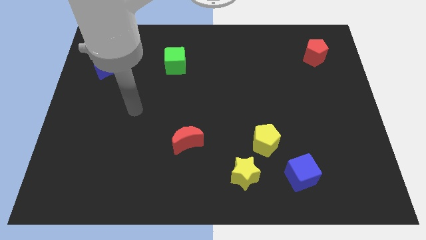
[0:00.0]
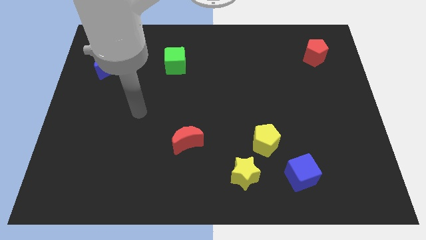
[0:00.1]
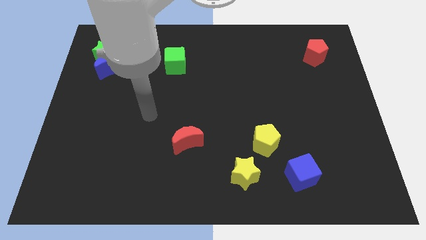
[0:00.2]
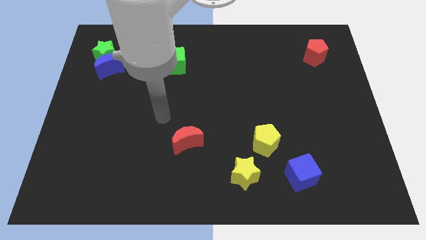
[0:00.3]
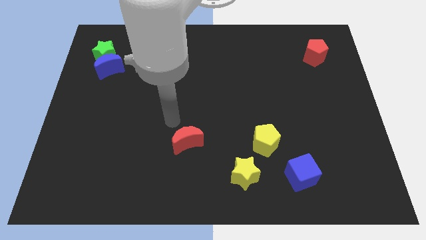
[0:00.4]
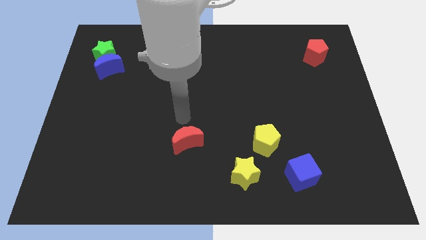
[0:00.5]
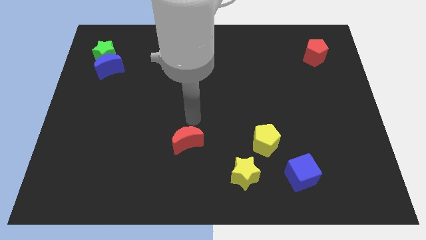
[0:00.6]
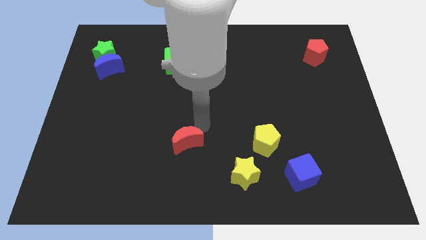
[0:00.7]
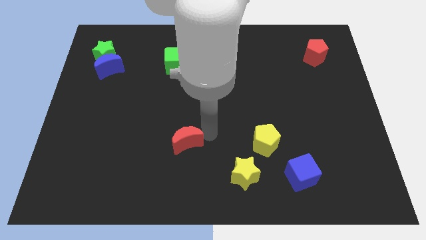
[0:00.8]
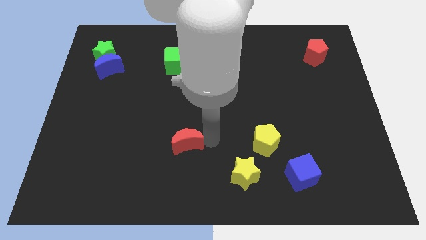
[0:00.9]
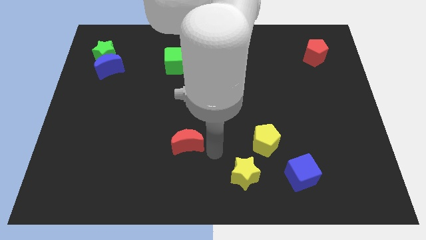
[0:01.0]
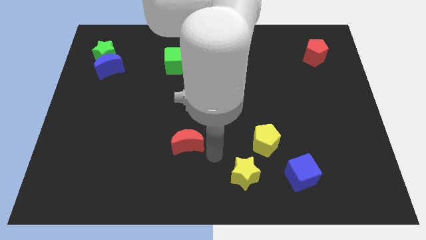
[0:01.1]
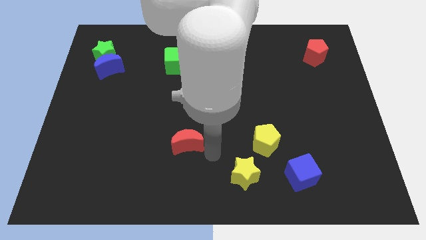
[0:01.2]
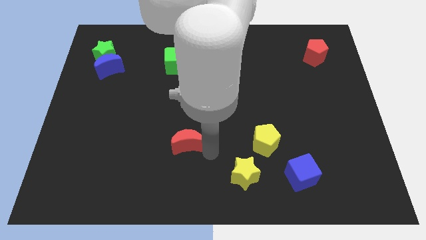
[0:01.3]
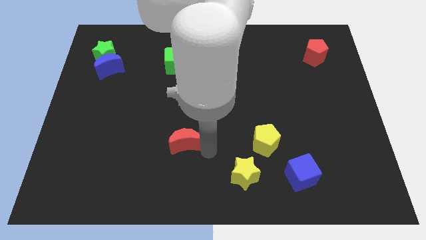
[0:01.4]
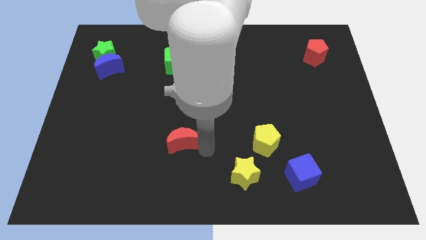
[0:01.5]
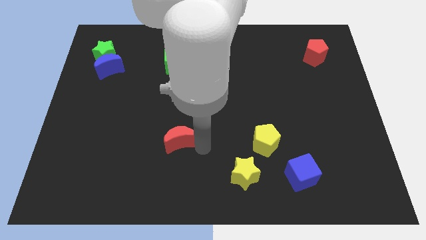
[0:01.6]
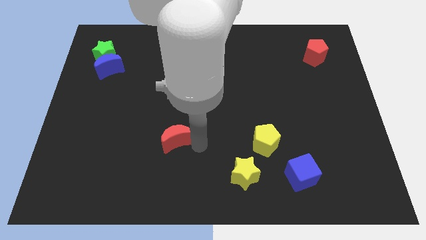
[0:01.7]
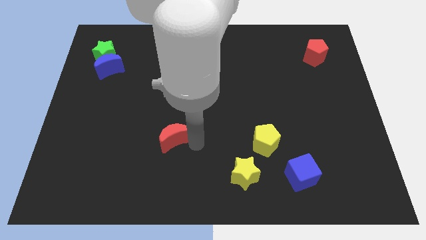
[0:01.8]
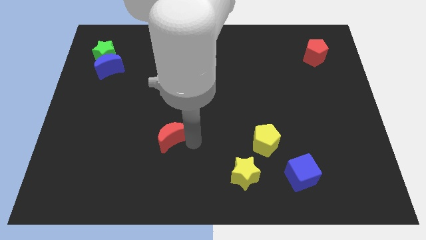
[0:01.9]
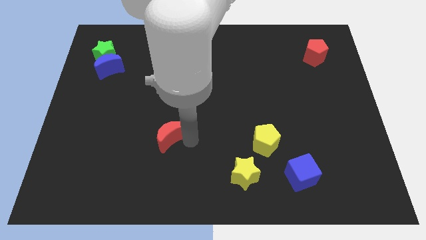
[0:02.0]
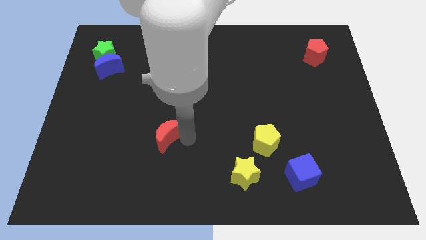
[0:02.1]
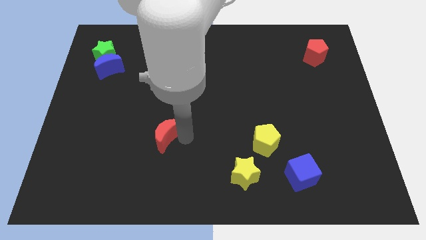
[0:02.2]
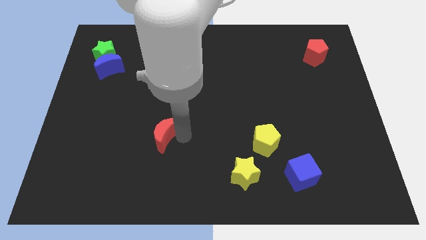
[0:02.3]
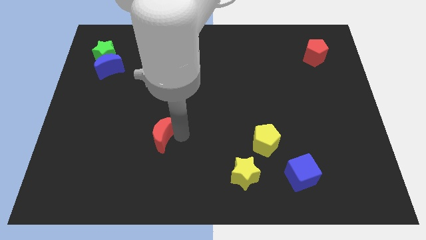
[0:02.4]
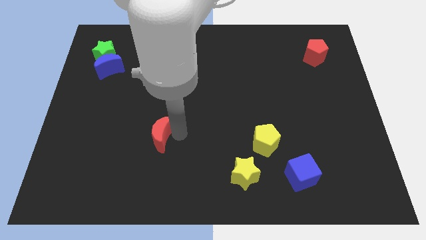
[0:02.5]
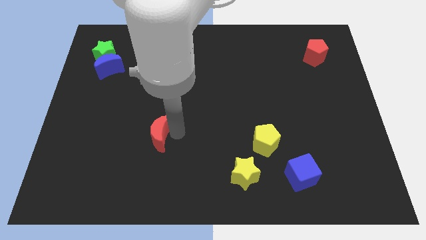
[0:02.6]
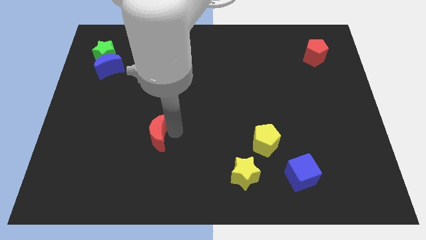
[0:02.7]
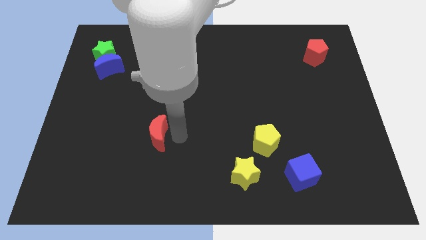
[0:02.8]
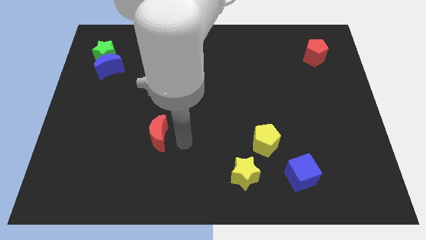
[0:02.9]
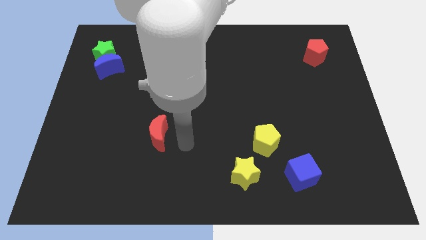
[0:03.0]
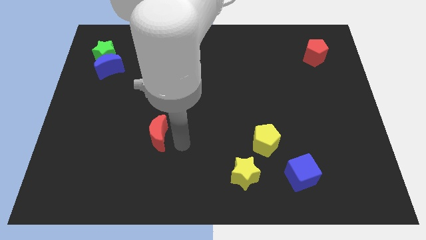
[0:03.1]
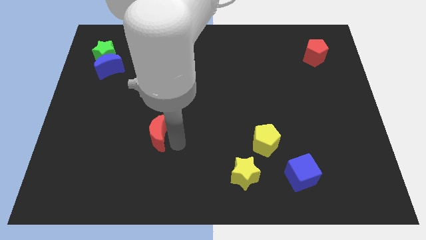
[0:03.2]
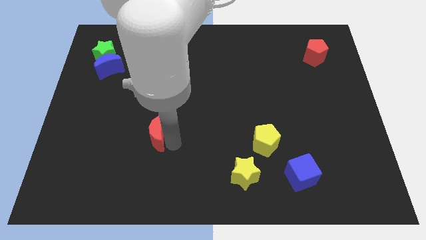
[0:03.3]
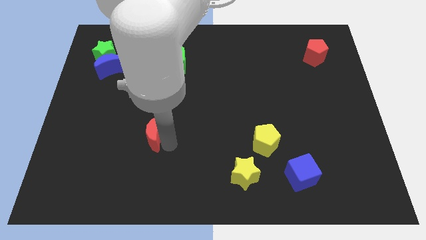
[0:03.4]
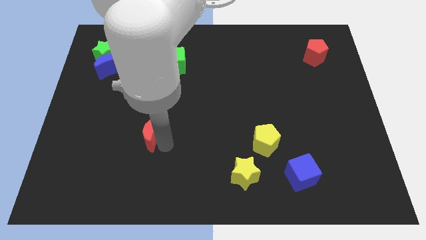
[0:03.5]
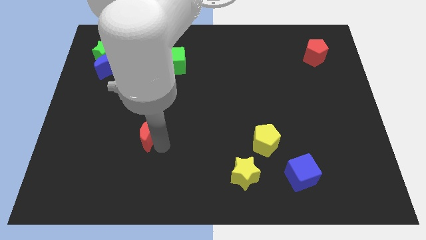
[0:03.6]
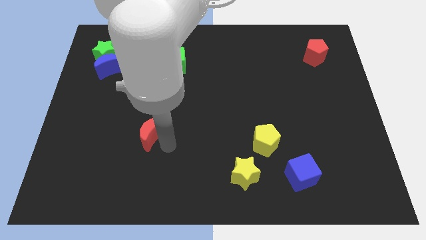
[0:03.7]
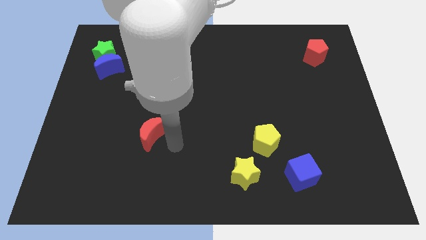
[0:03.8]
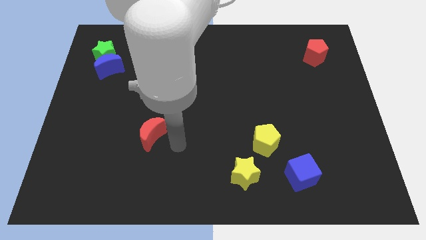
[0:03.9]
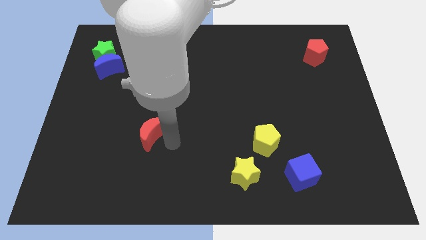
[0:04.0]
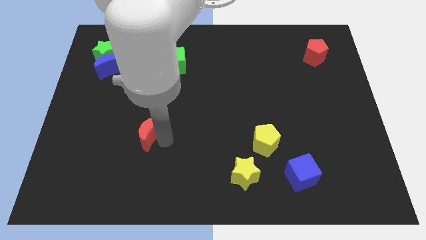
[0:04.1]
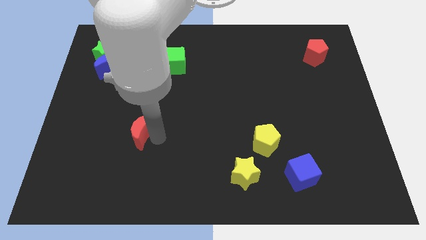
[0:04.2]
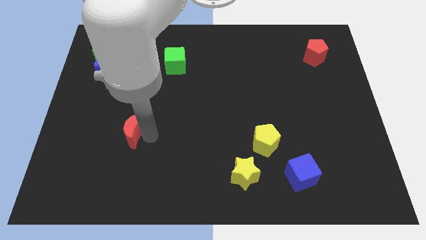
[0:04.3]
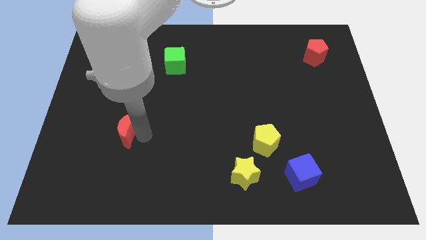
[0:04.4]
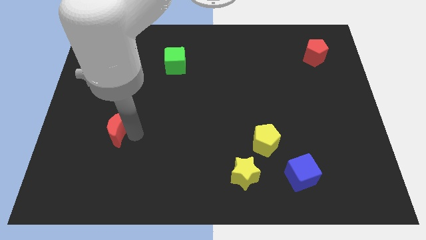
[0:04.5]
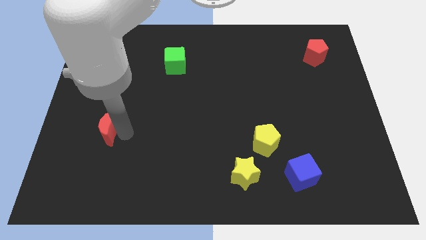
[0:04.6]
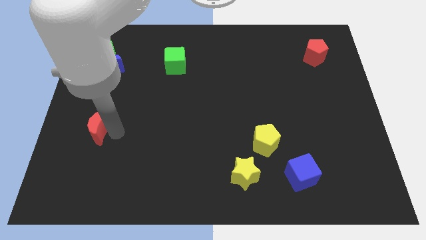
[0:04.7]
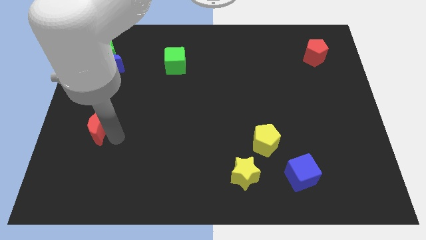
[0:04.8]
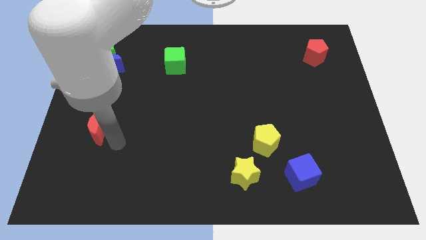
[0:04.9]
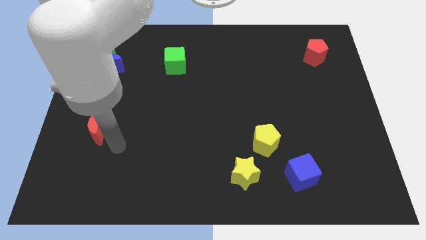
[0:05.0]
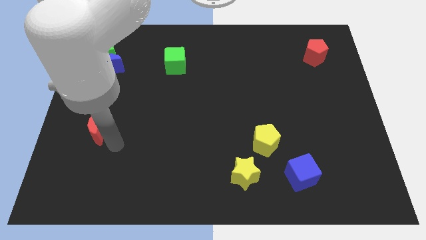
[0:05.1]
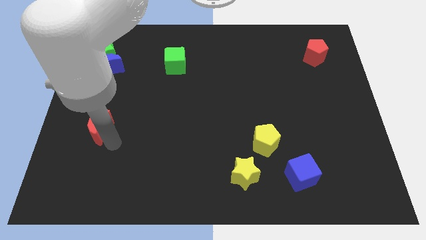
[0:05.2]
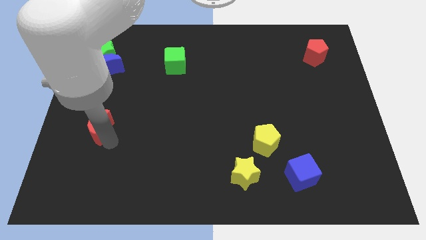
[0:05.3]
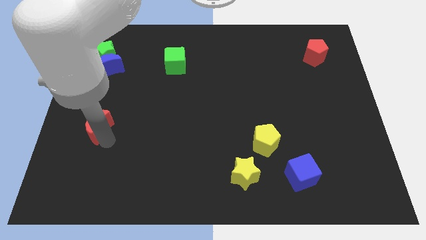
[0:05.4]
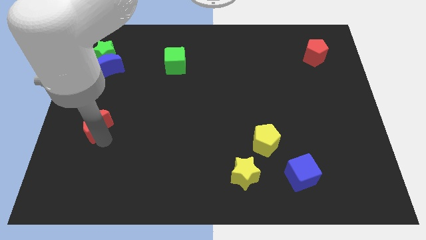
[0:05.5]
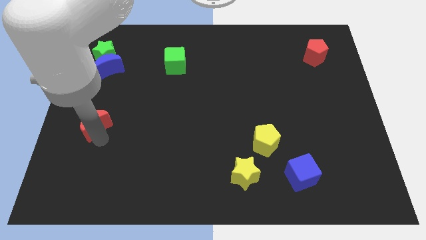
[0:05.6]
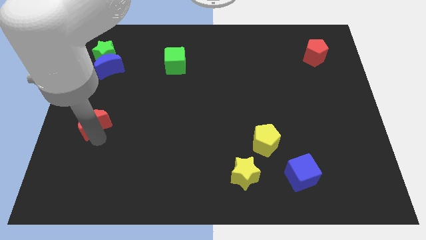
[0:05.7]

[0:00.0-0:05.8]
move the red moon to the left side

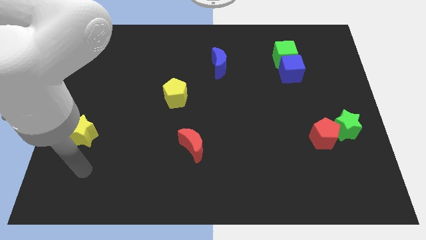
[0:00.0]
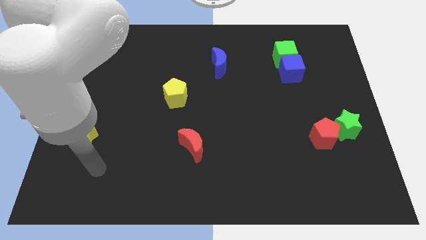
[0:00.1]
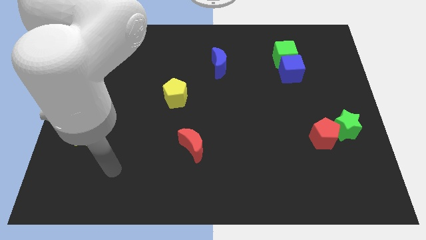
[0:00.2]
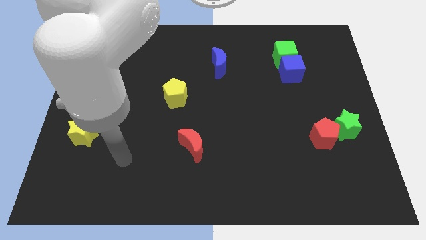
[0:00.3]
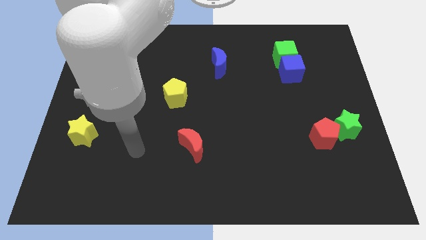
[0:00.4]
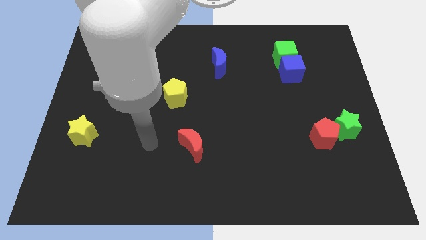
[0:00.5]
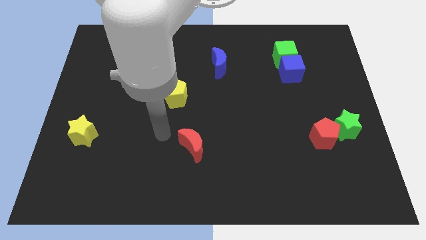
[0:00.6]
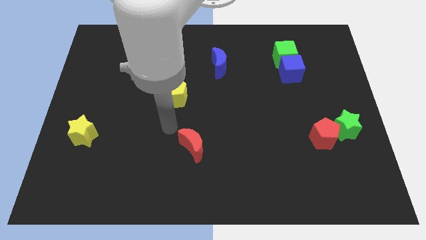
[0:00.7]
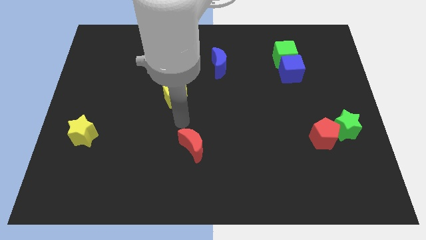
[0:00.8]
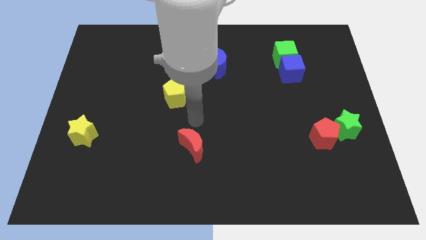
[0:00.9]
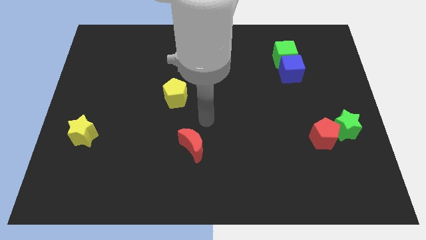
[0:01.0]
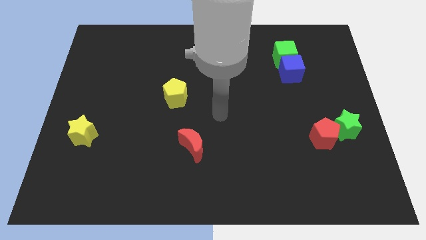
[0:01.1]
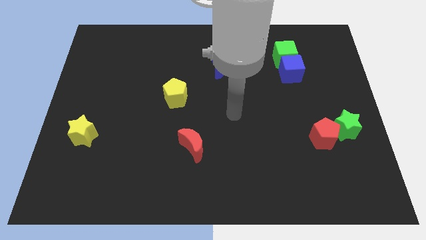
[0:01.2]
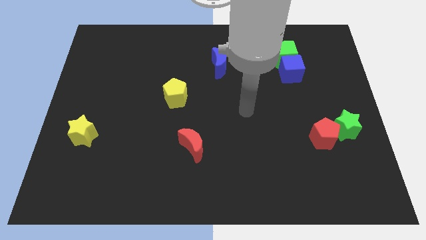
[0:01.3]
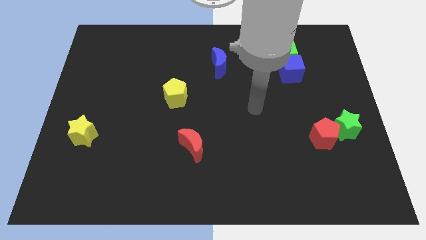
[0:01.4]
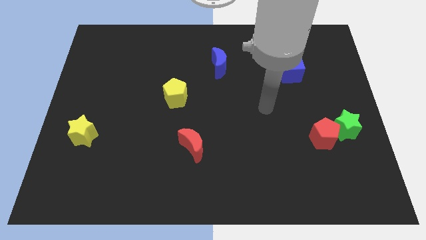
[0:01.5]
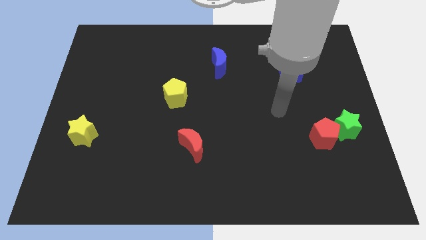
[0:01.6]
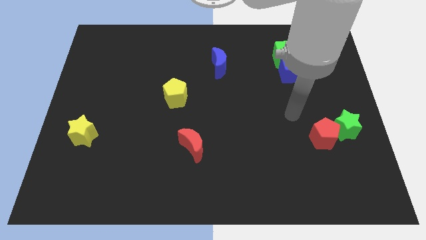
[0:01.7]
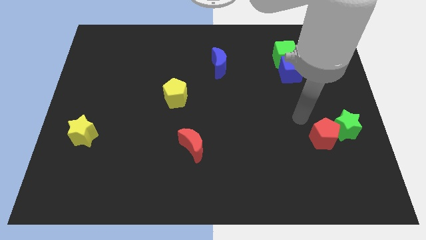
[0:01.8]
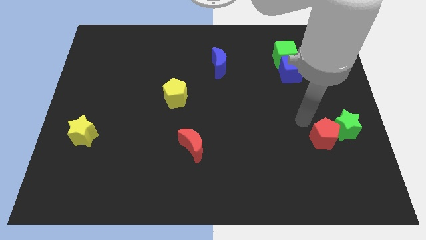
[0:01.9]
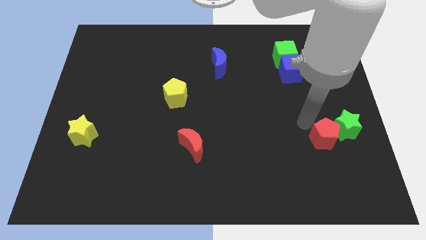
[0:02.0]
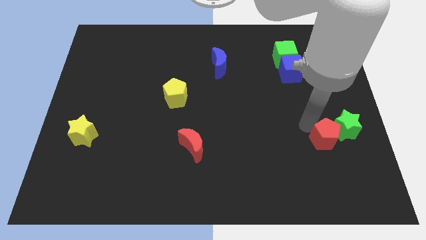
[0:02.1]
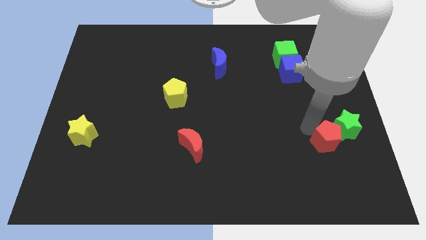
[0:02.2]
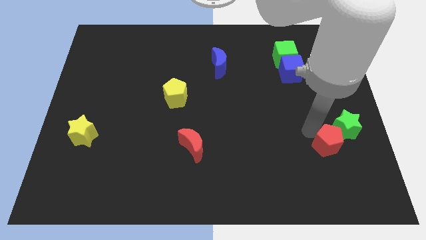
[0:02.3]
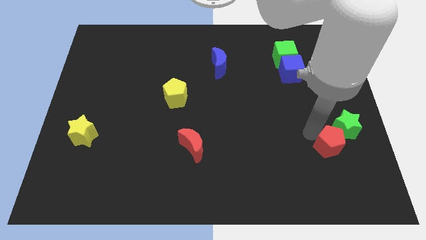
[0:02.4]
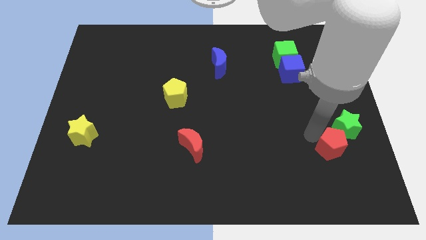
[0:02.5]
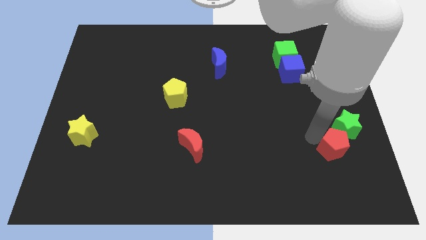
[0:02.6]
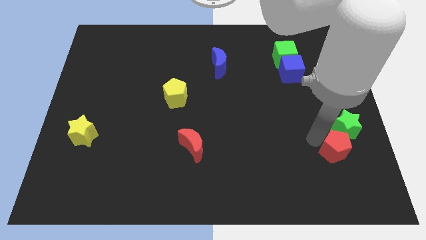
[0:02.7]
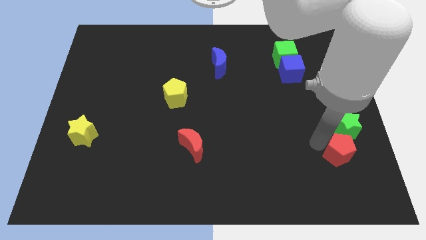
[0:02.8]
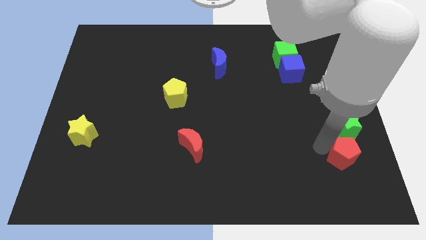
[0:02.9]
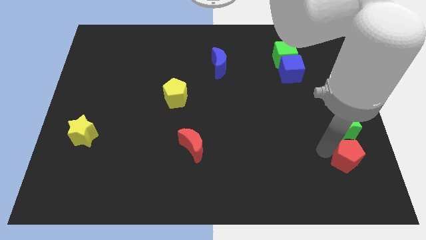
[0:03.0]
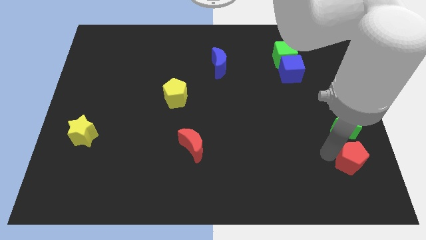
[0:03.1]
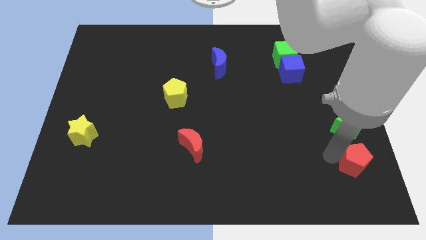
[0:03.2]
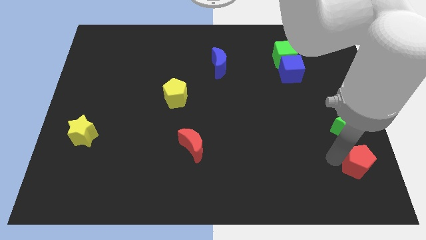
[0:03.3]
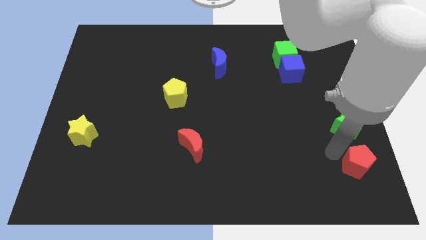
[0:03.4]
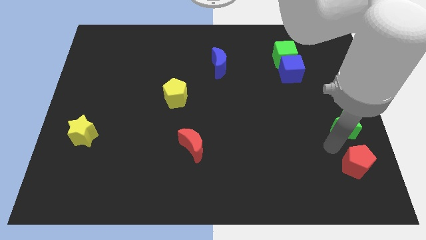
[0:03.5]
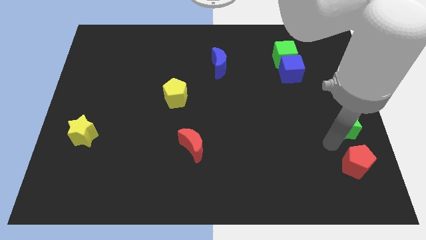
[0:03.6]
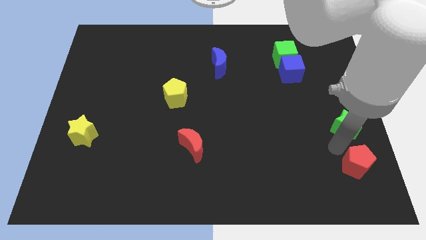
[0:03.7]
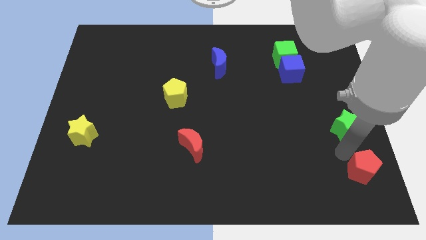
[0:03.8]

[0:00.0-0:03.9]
push the red pentagon to the lower right corner
